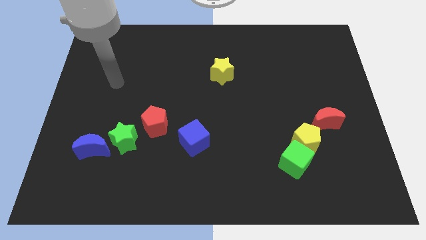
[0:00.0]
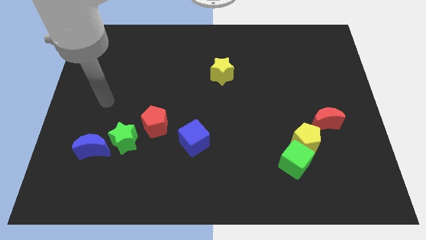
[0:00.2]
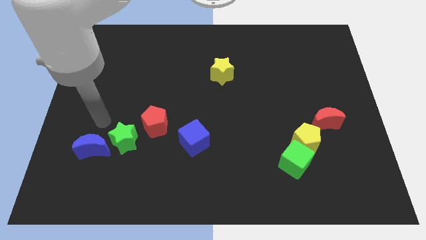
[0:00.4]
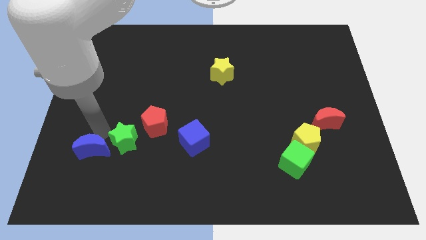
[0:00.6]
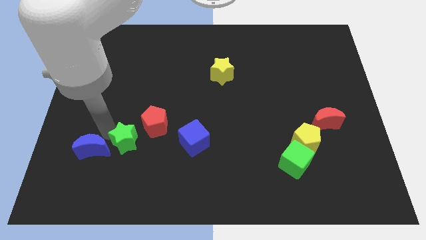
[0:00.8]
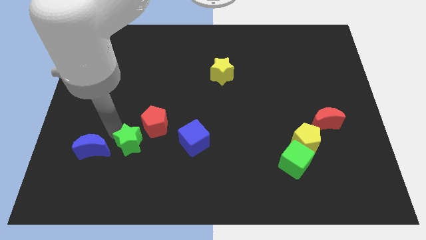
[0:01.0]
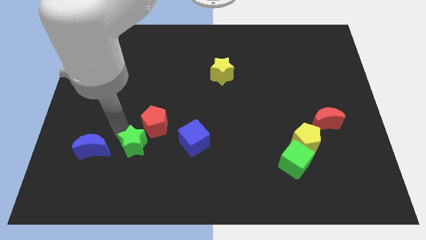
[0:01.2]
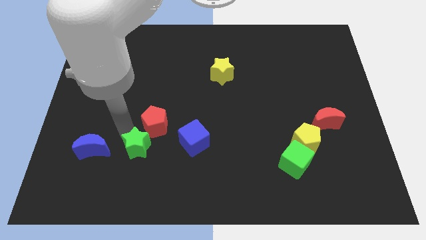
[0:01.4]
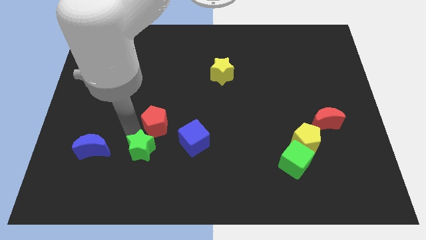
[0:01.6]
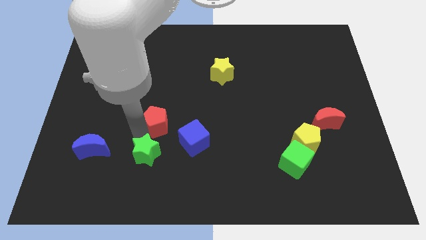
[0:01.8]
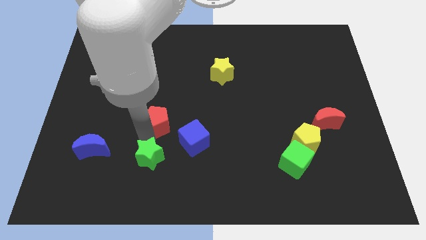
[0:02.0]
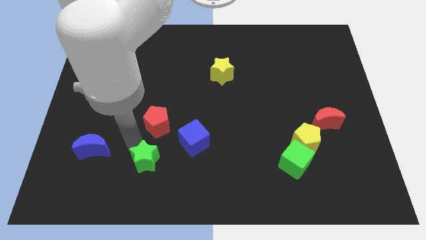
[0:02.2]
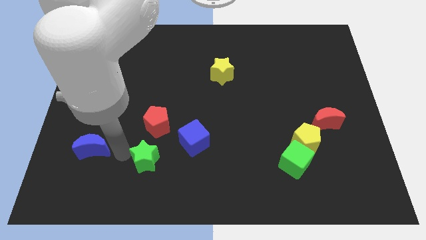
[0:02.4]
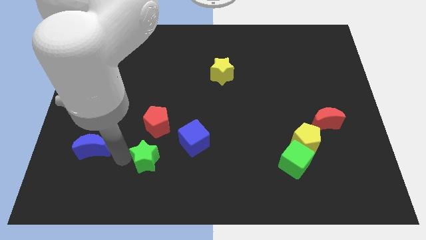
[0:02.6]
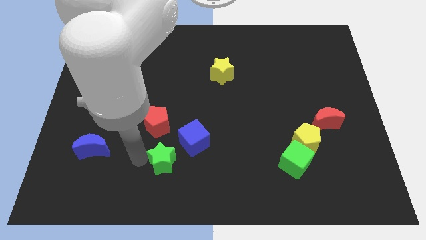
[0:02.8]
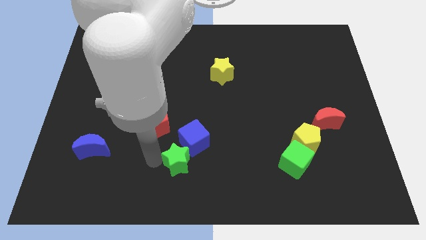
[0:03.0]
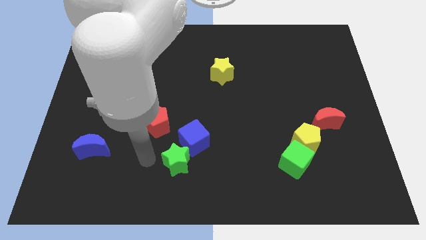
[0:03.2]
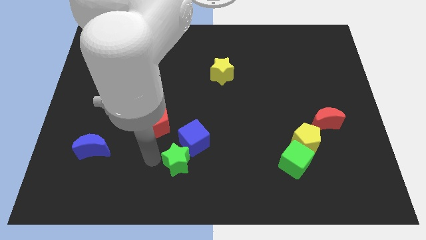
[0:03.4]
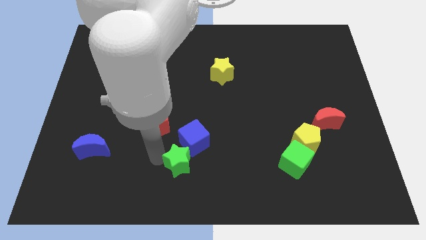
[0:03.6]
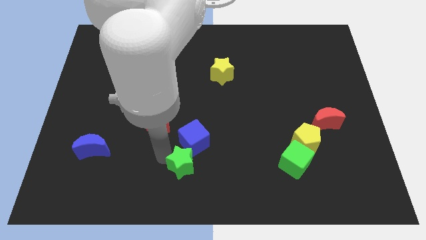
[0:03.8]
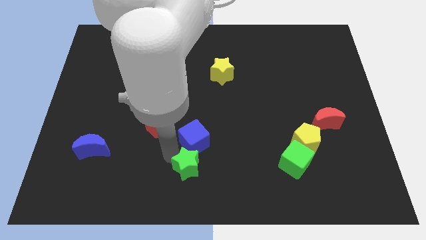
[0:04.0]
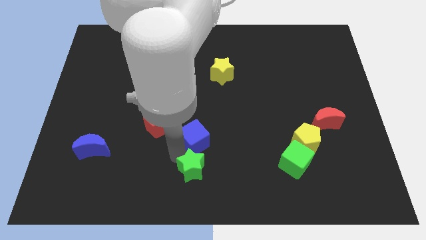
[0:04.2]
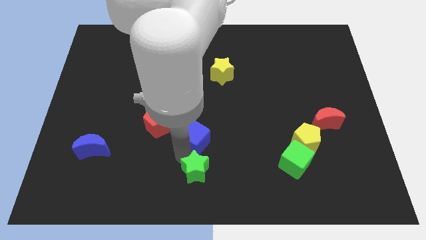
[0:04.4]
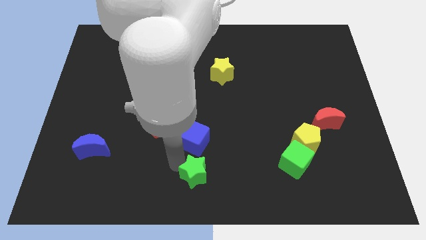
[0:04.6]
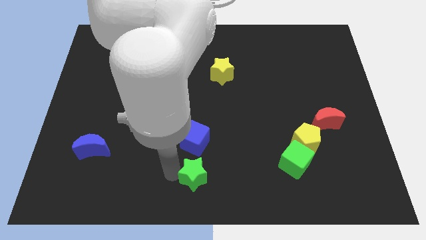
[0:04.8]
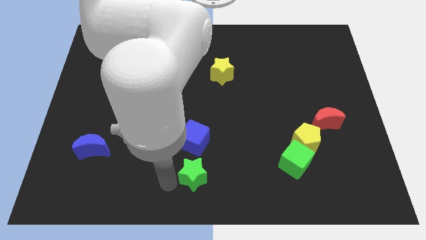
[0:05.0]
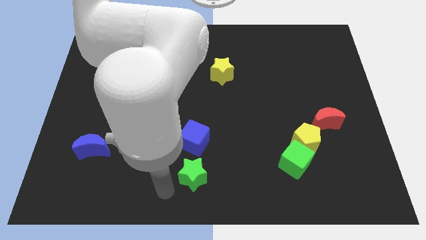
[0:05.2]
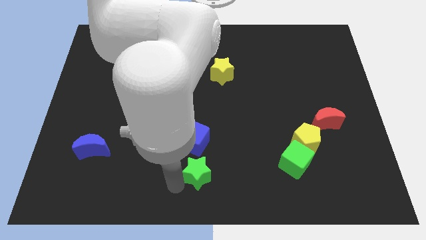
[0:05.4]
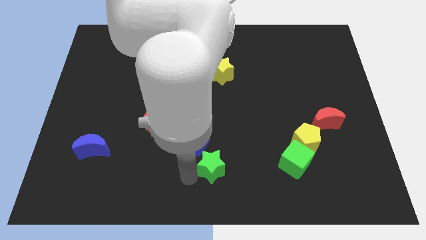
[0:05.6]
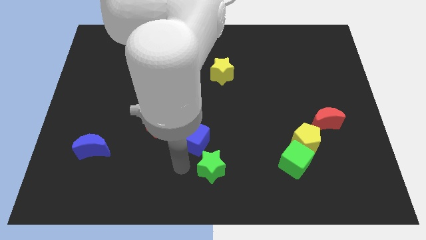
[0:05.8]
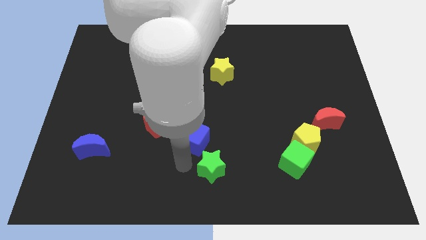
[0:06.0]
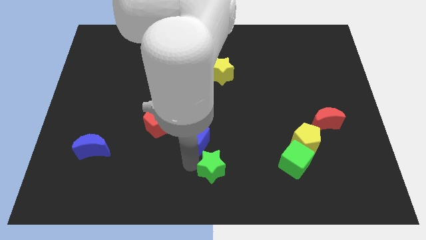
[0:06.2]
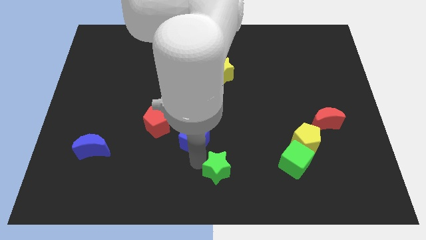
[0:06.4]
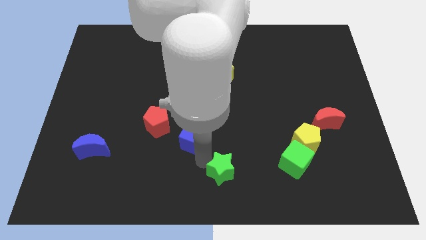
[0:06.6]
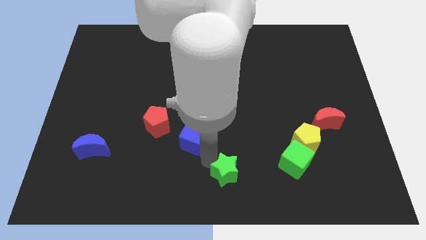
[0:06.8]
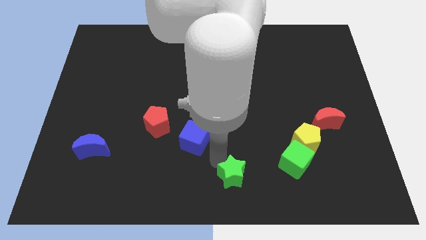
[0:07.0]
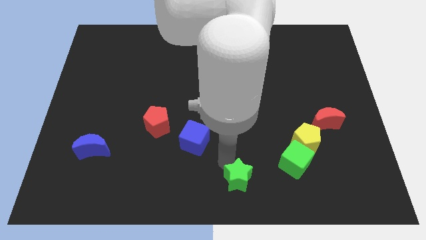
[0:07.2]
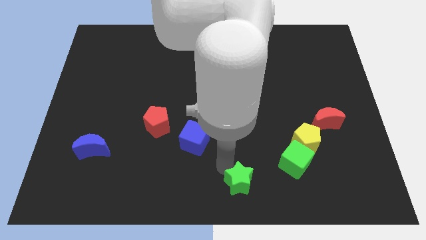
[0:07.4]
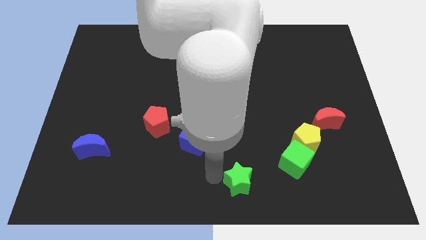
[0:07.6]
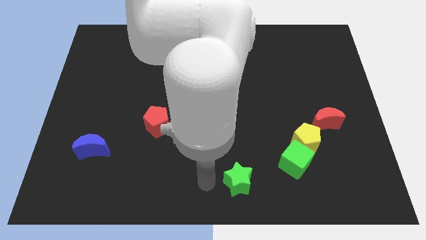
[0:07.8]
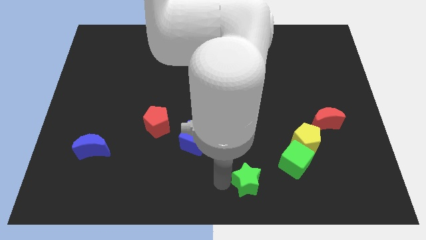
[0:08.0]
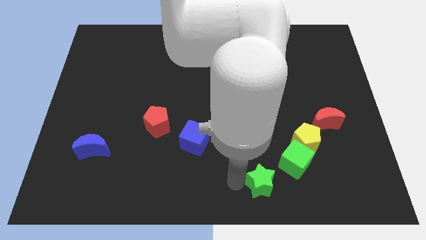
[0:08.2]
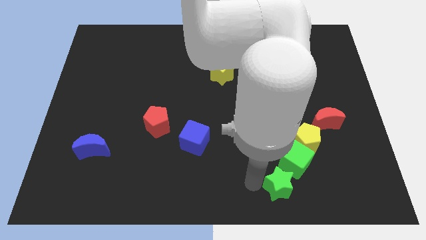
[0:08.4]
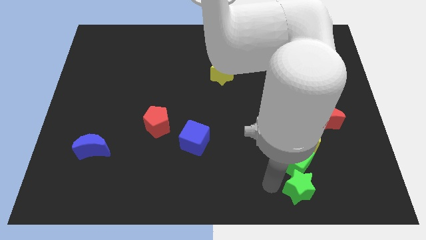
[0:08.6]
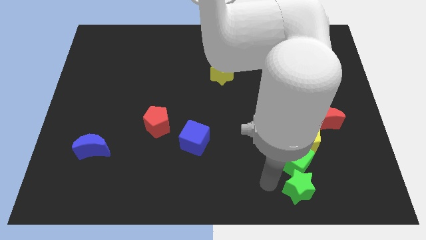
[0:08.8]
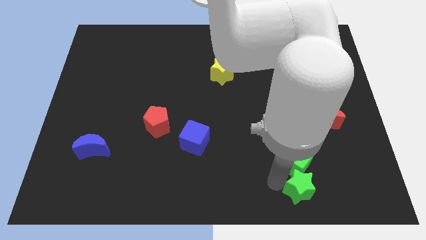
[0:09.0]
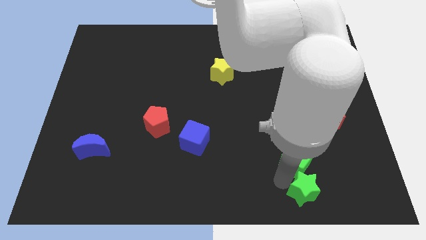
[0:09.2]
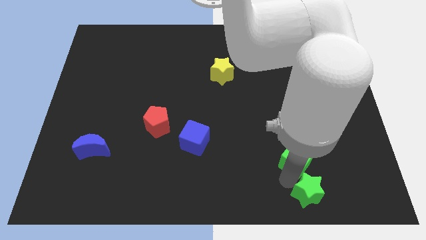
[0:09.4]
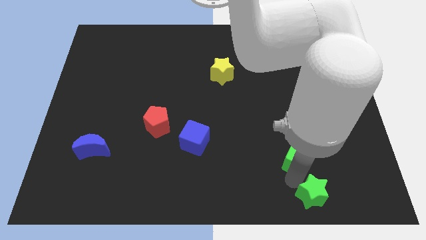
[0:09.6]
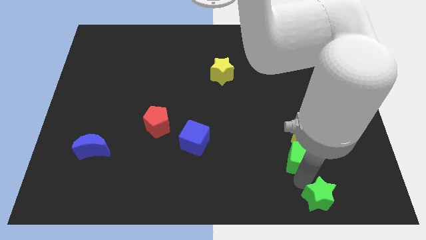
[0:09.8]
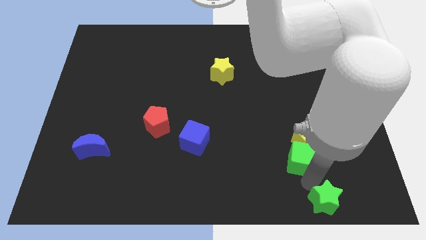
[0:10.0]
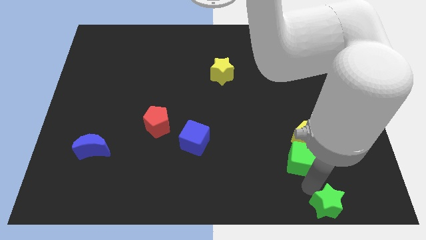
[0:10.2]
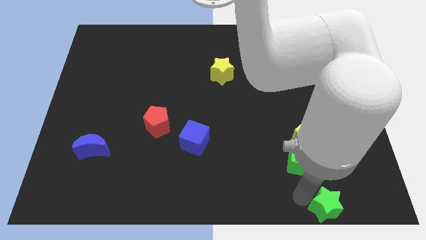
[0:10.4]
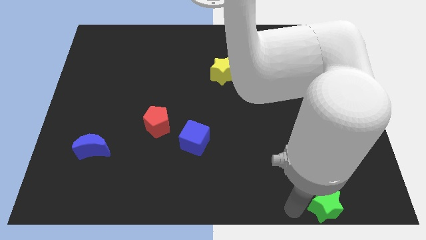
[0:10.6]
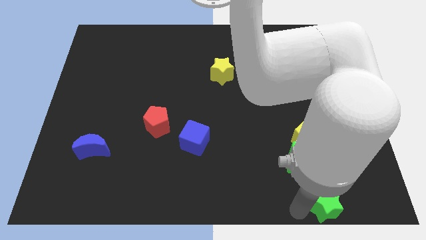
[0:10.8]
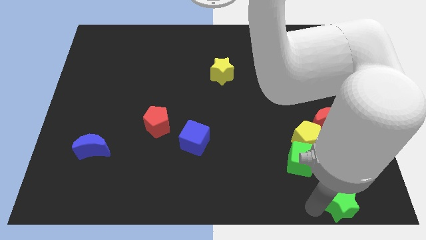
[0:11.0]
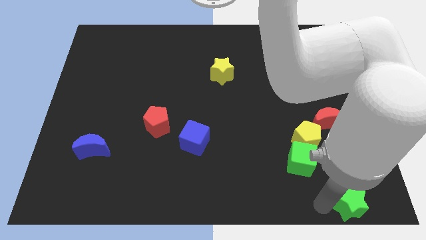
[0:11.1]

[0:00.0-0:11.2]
push the green star to the lower right corner
